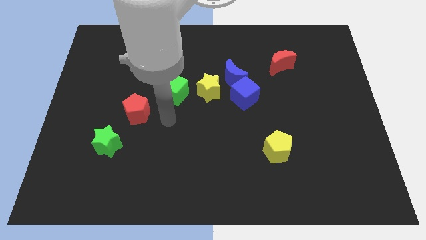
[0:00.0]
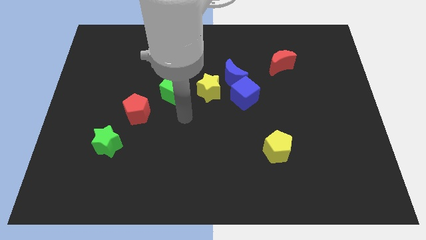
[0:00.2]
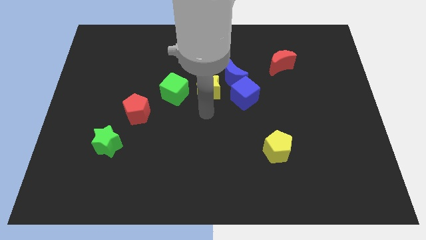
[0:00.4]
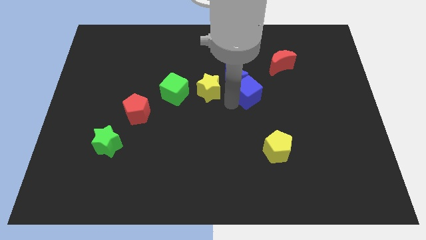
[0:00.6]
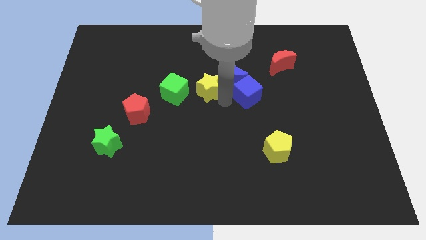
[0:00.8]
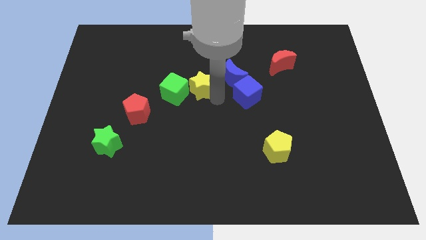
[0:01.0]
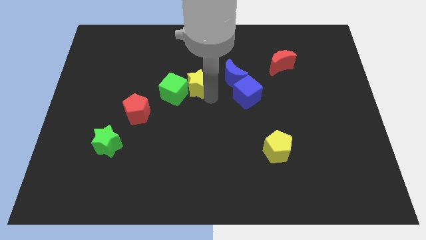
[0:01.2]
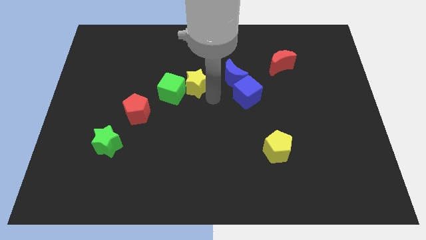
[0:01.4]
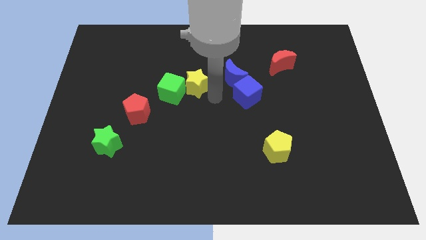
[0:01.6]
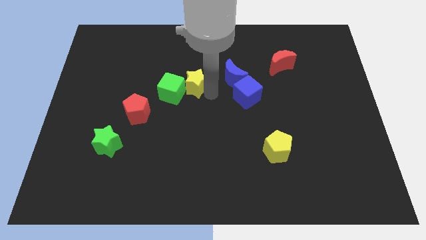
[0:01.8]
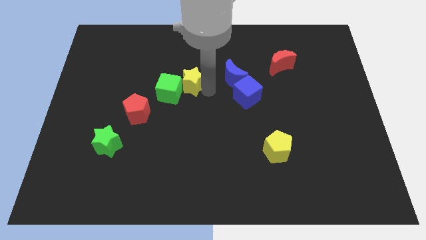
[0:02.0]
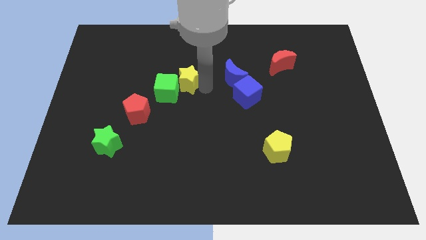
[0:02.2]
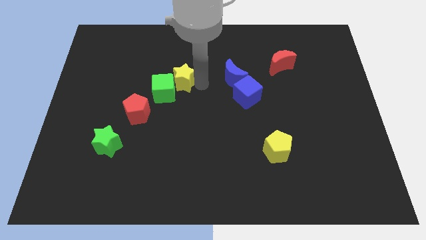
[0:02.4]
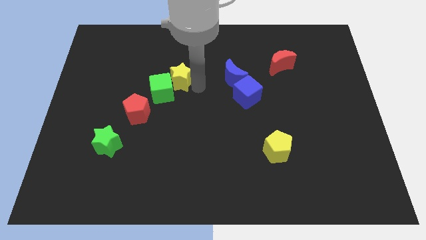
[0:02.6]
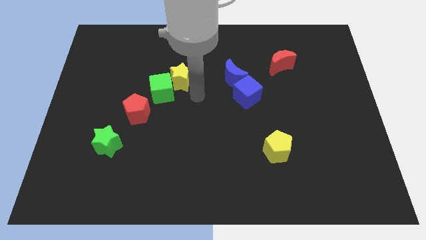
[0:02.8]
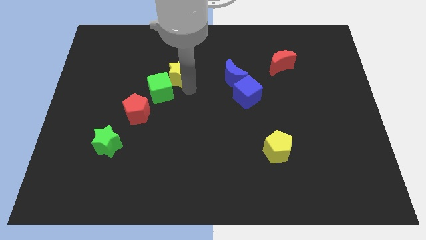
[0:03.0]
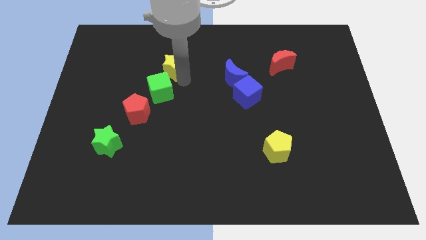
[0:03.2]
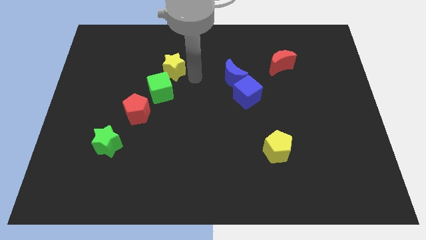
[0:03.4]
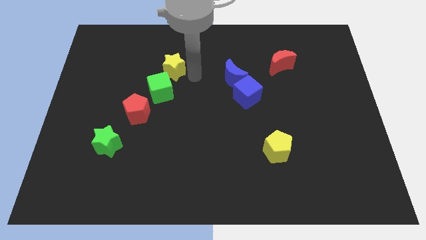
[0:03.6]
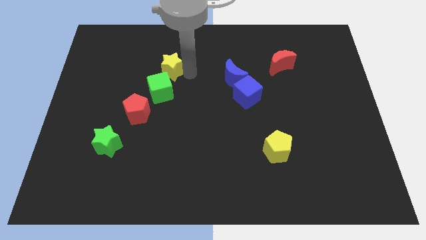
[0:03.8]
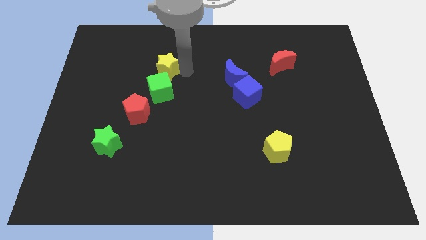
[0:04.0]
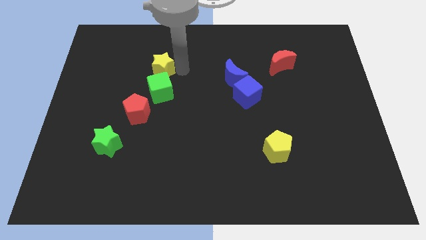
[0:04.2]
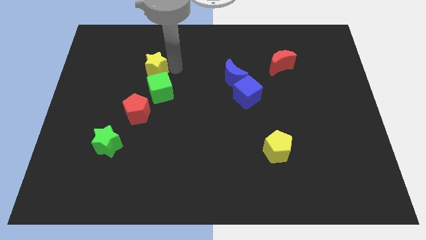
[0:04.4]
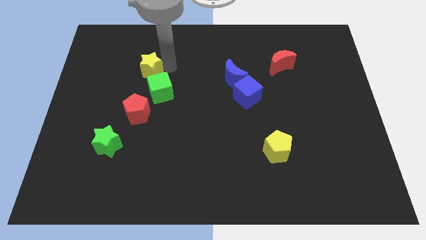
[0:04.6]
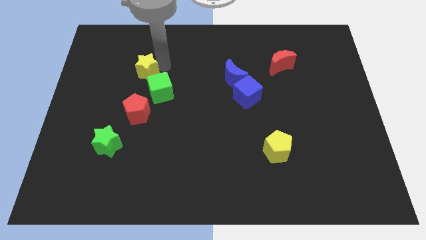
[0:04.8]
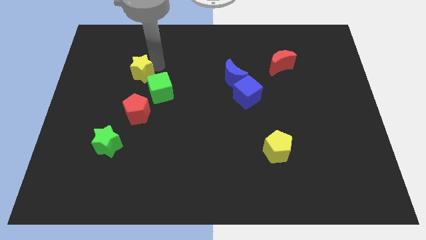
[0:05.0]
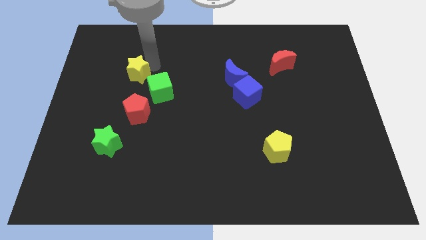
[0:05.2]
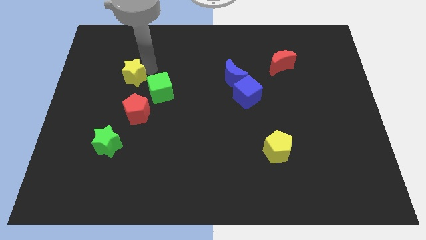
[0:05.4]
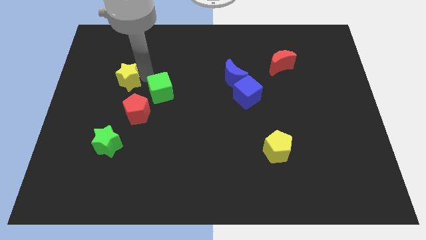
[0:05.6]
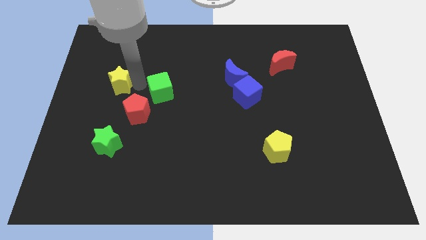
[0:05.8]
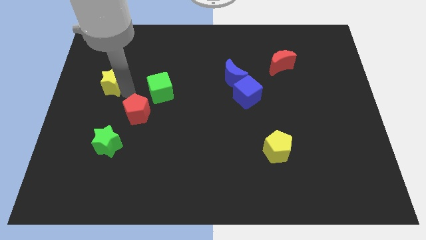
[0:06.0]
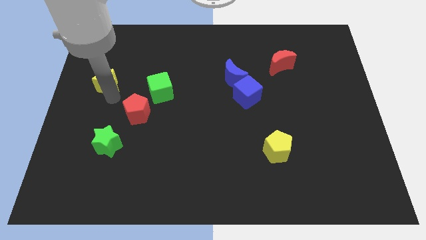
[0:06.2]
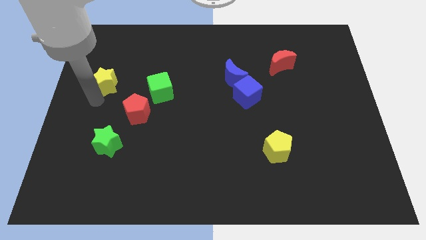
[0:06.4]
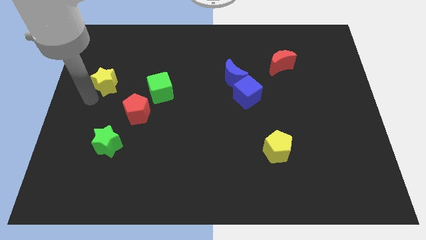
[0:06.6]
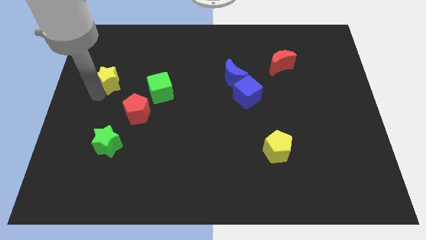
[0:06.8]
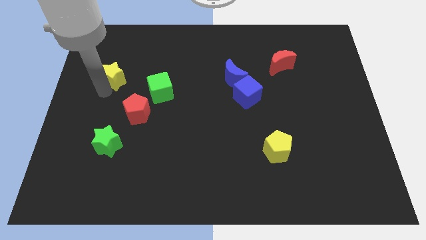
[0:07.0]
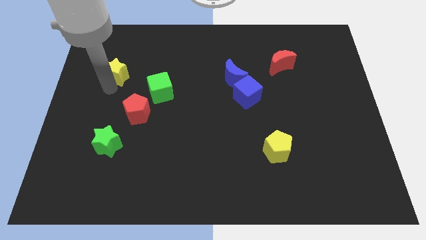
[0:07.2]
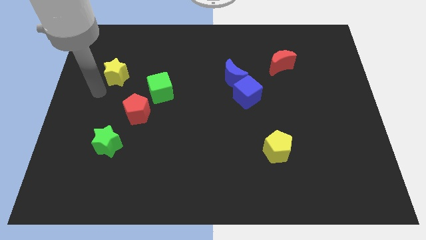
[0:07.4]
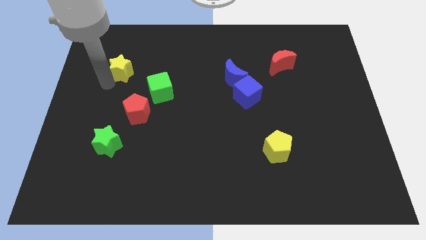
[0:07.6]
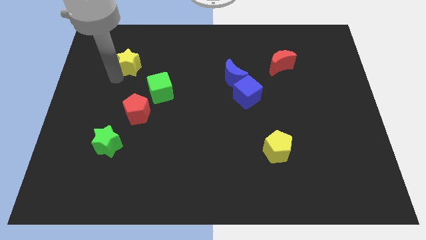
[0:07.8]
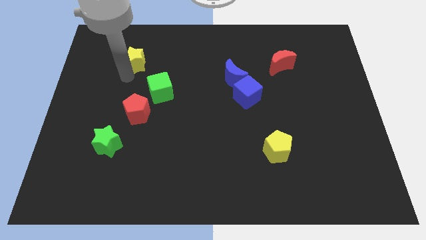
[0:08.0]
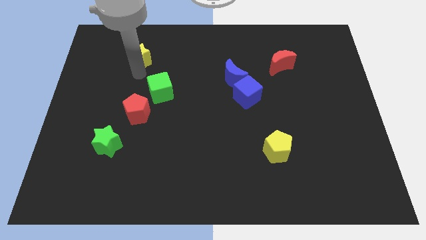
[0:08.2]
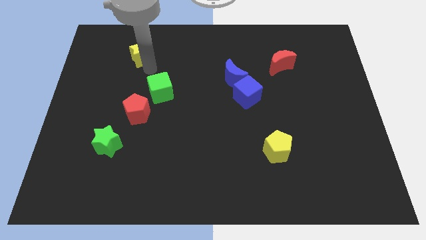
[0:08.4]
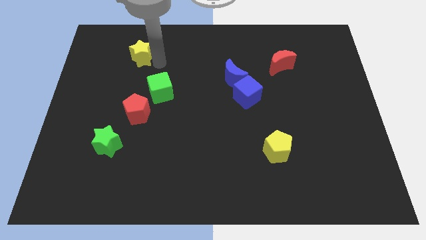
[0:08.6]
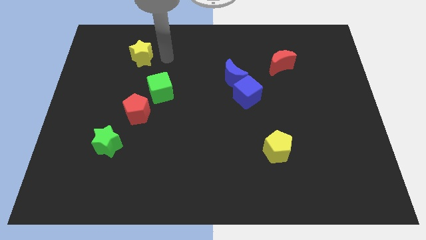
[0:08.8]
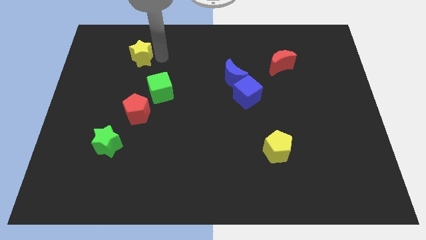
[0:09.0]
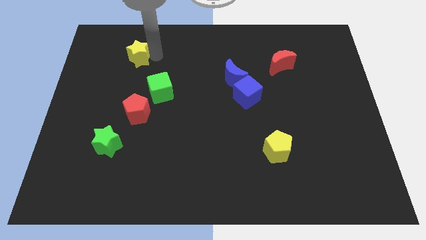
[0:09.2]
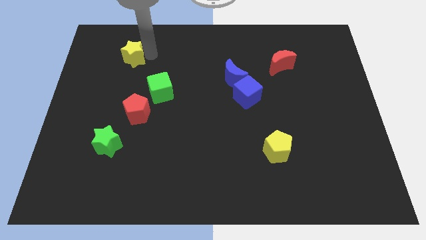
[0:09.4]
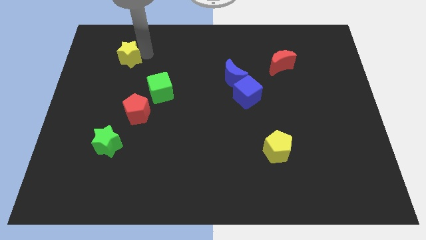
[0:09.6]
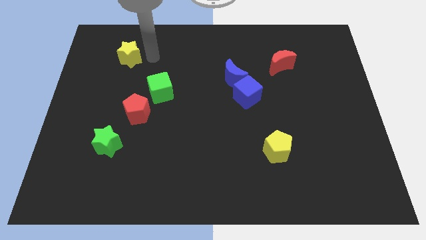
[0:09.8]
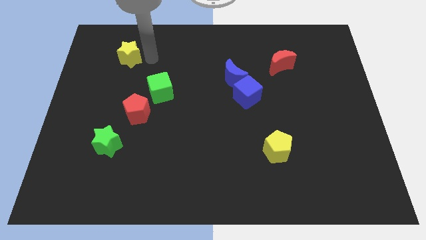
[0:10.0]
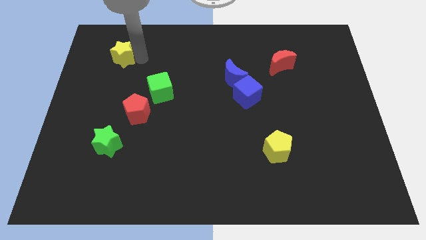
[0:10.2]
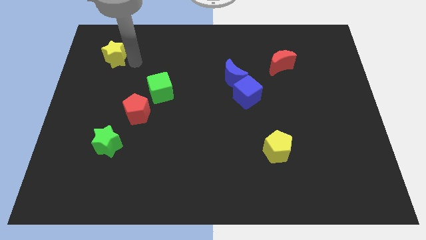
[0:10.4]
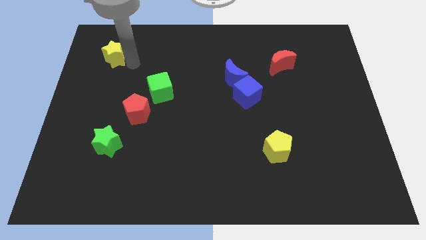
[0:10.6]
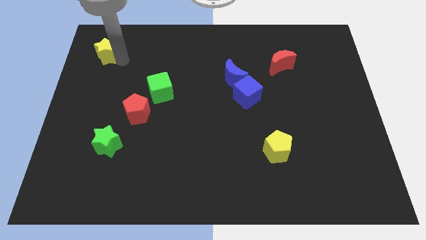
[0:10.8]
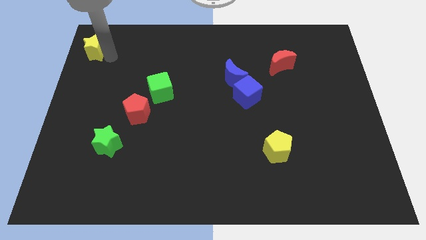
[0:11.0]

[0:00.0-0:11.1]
move the yellow star to the top left corner

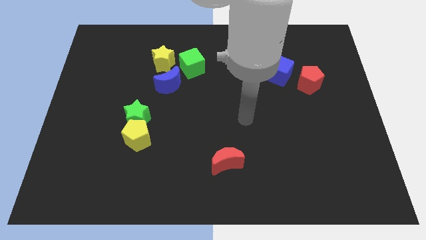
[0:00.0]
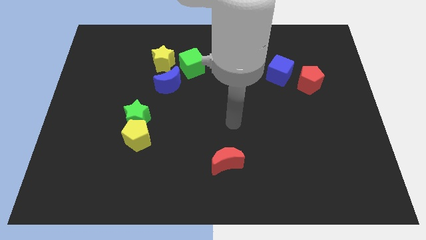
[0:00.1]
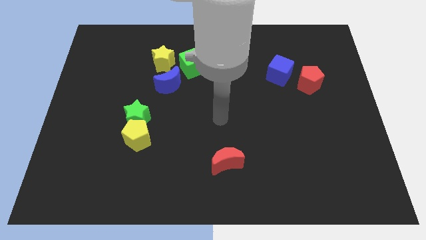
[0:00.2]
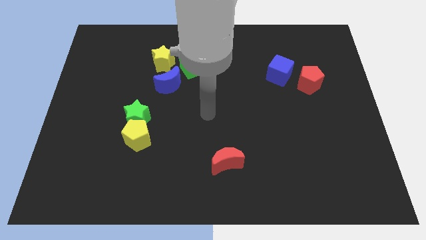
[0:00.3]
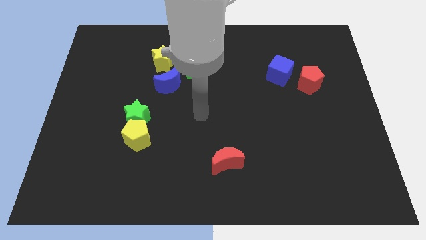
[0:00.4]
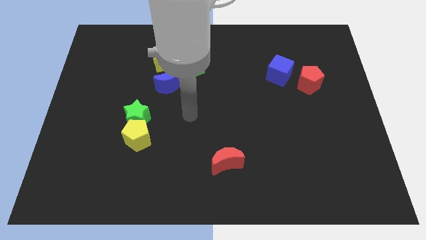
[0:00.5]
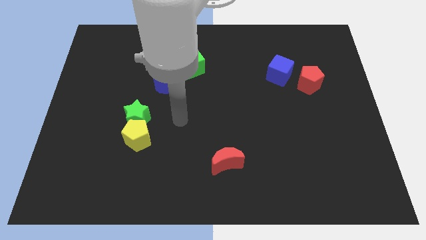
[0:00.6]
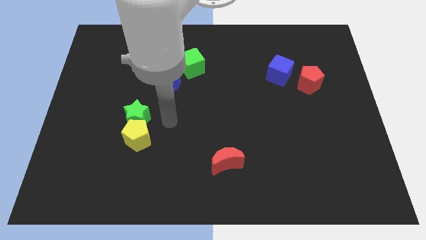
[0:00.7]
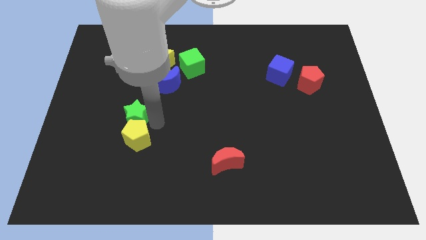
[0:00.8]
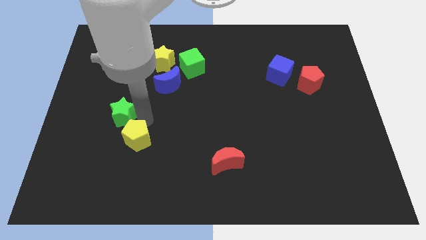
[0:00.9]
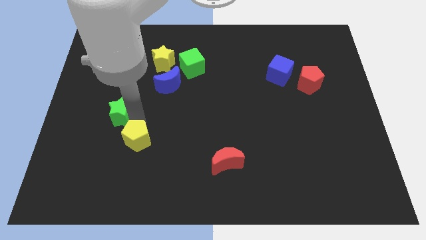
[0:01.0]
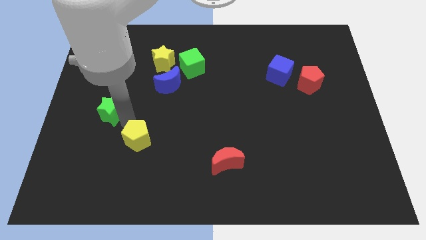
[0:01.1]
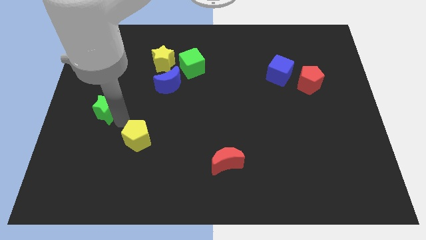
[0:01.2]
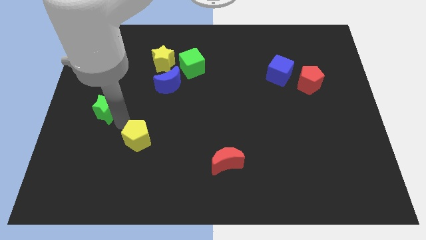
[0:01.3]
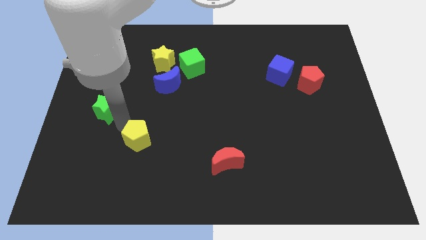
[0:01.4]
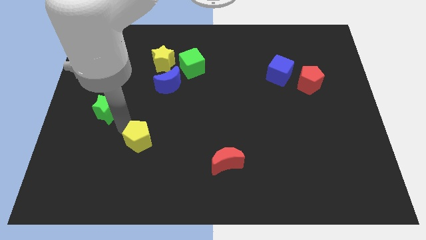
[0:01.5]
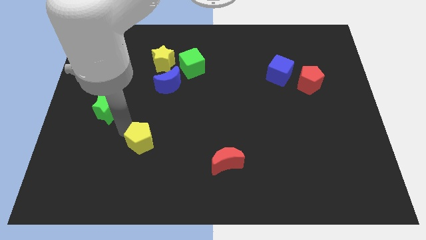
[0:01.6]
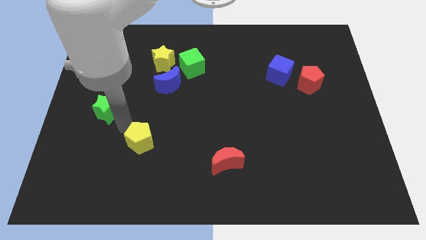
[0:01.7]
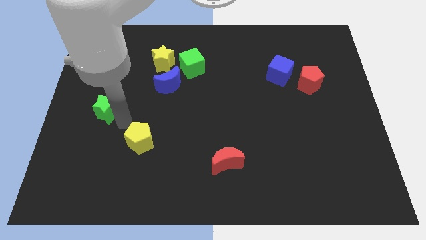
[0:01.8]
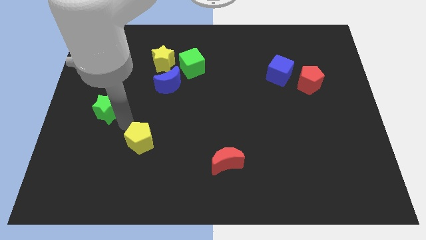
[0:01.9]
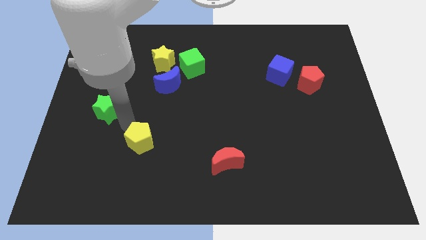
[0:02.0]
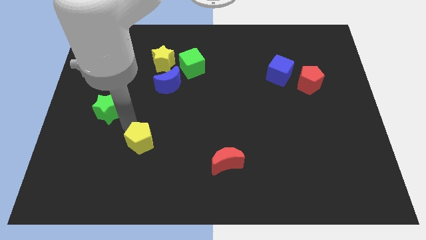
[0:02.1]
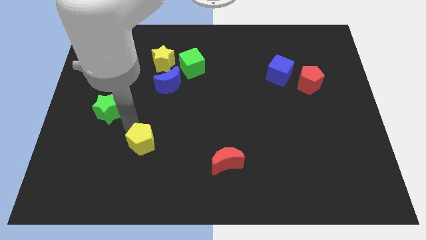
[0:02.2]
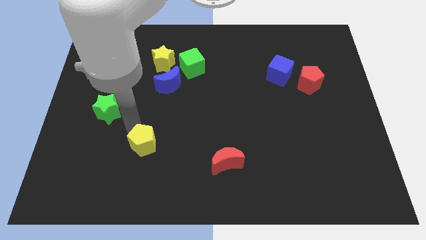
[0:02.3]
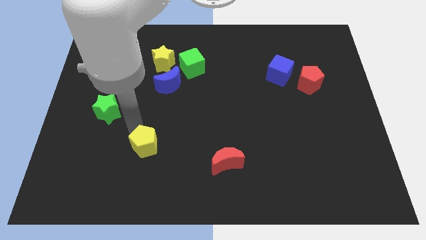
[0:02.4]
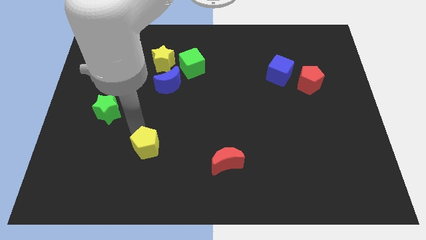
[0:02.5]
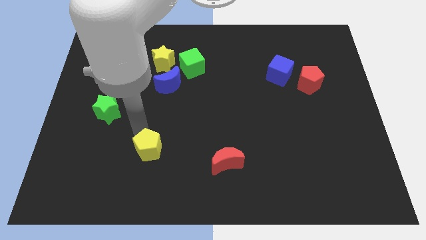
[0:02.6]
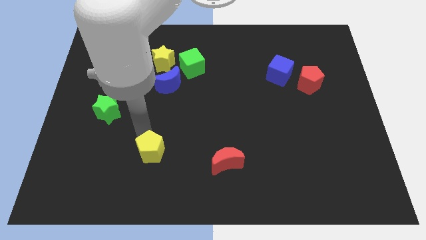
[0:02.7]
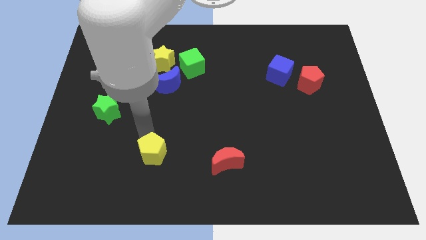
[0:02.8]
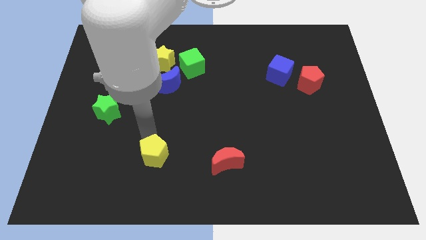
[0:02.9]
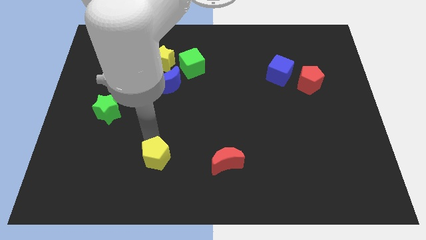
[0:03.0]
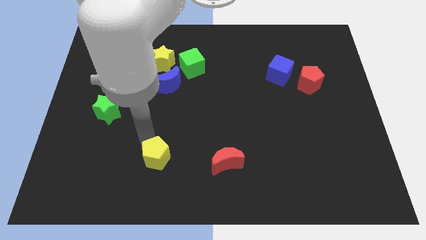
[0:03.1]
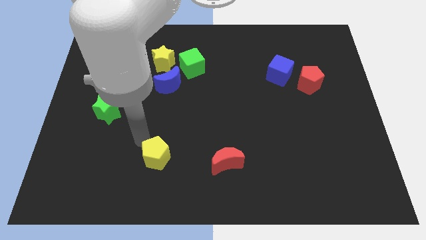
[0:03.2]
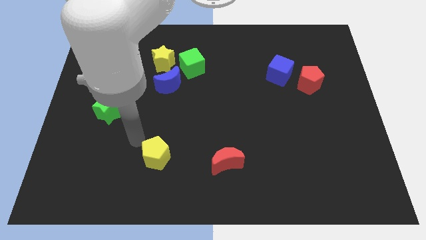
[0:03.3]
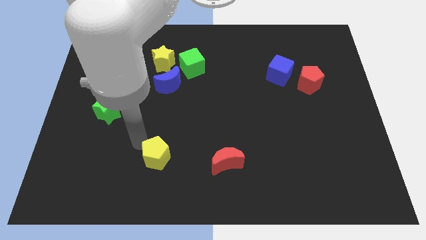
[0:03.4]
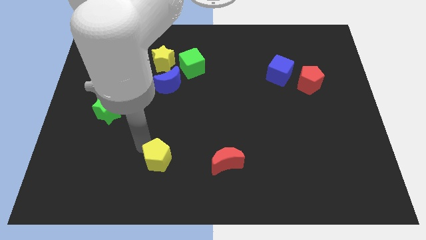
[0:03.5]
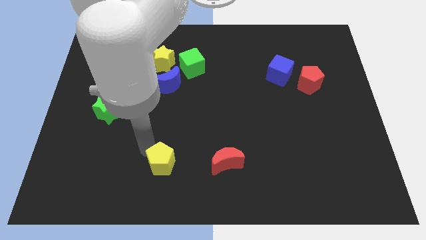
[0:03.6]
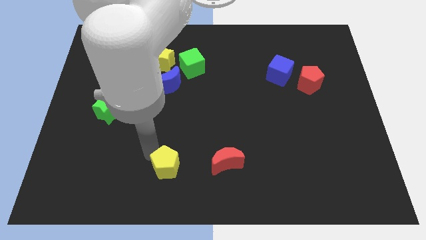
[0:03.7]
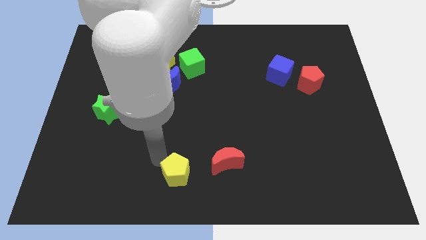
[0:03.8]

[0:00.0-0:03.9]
put the yellow pentagon to the bottom
